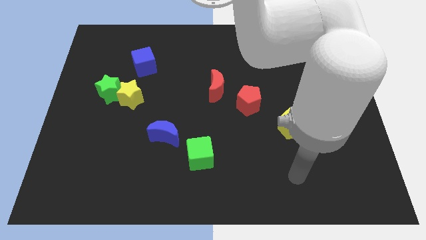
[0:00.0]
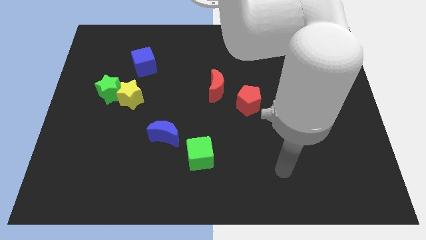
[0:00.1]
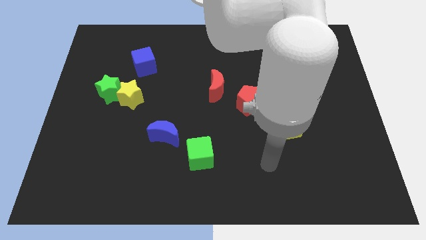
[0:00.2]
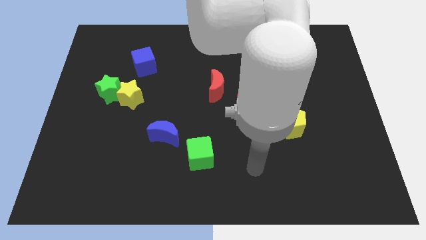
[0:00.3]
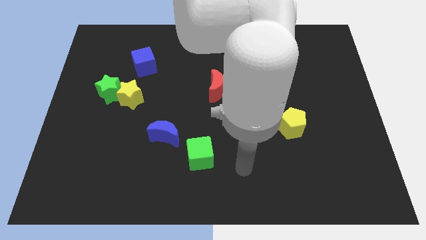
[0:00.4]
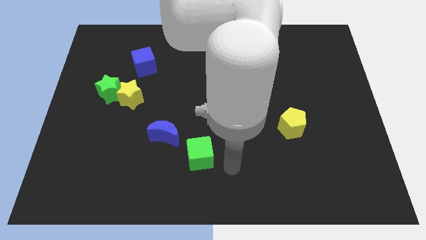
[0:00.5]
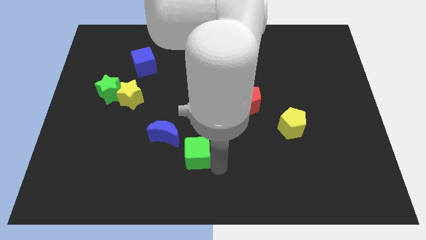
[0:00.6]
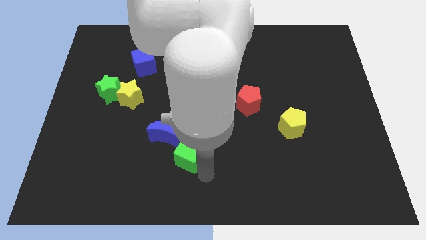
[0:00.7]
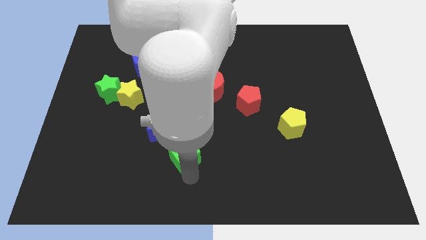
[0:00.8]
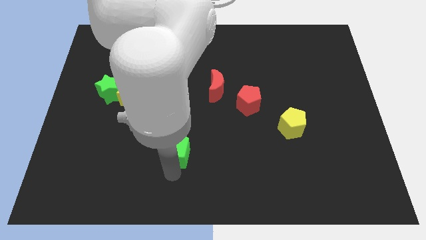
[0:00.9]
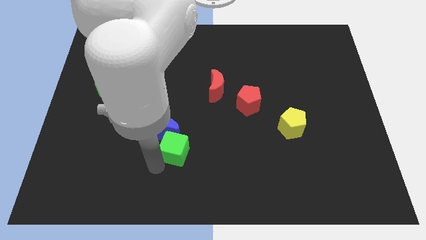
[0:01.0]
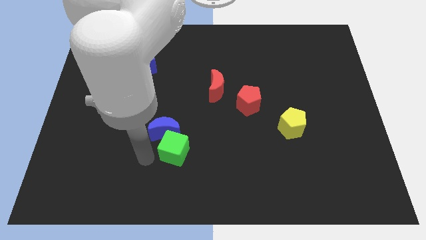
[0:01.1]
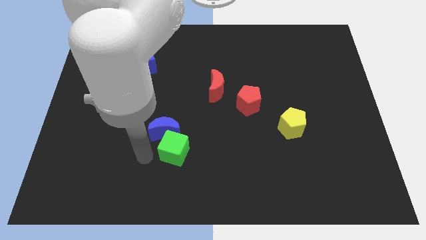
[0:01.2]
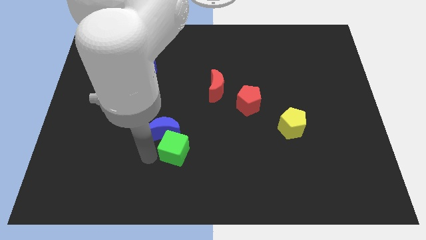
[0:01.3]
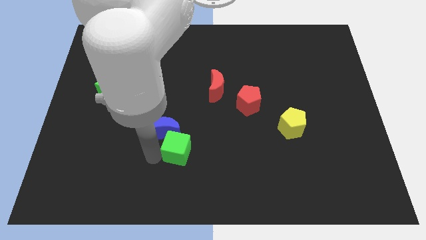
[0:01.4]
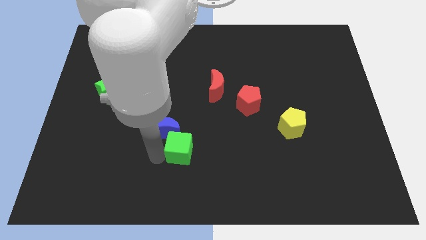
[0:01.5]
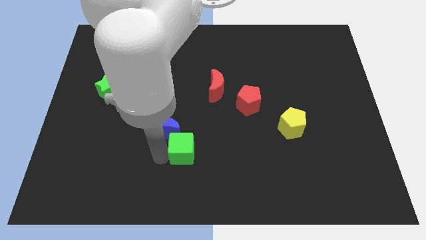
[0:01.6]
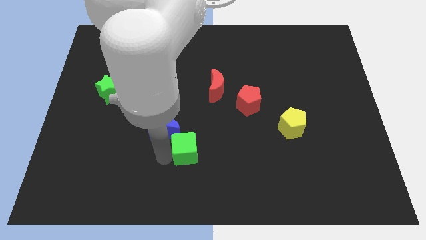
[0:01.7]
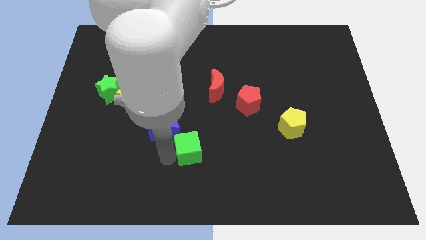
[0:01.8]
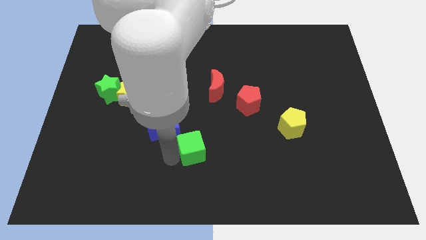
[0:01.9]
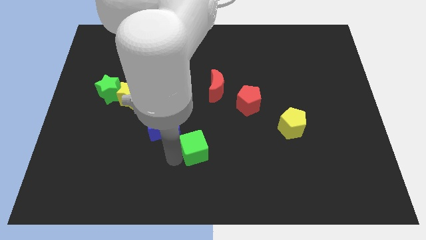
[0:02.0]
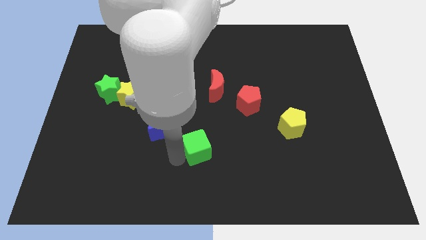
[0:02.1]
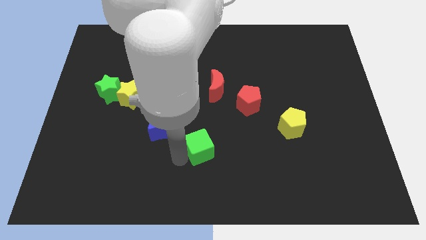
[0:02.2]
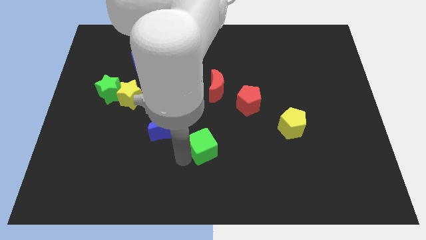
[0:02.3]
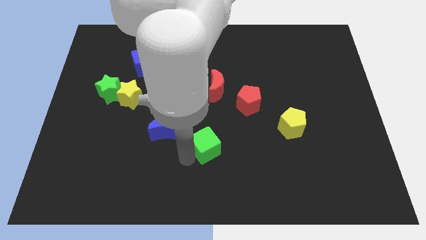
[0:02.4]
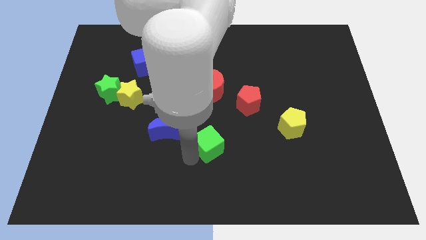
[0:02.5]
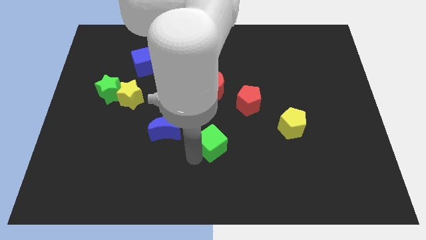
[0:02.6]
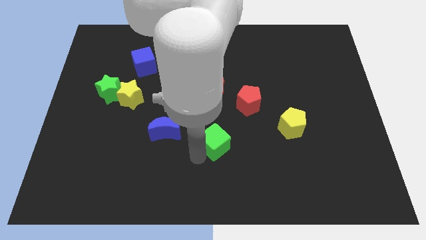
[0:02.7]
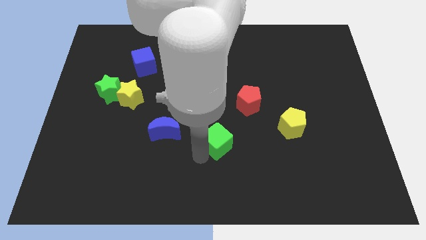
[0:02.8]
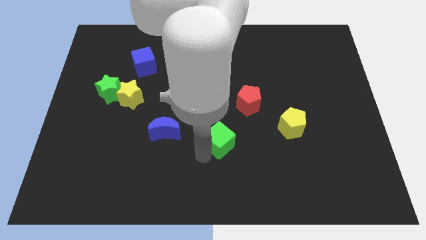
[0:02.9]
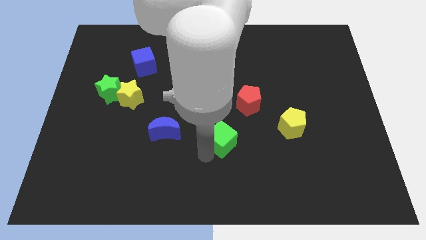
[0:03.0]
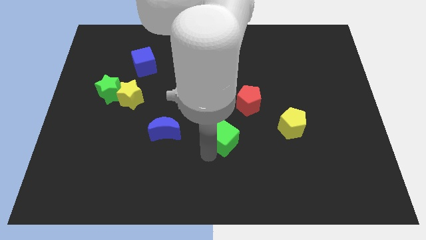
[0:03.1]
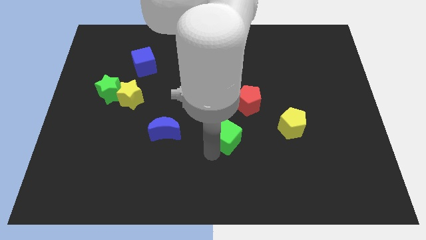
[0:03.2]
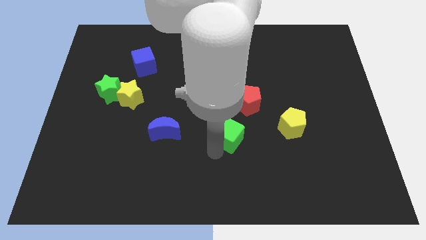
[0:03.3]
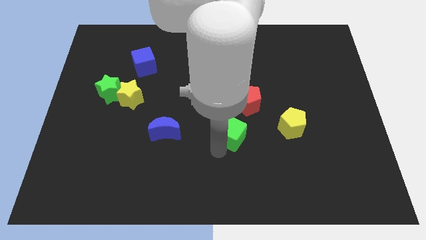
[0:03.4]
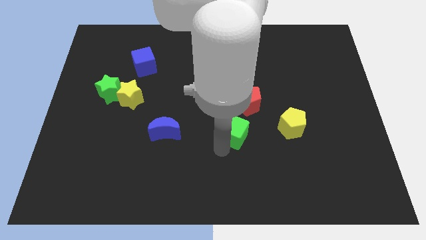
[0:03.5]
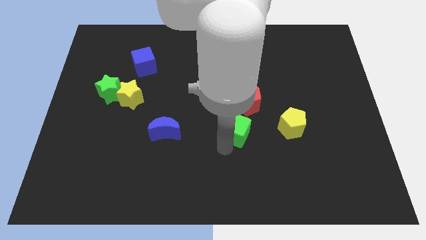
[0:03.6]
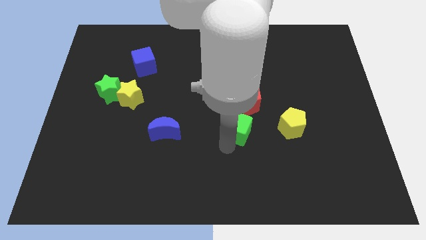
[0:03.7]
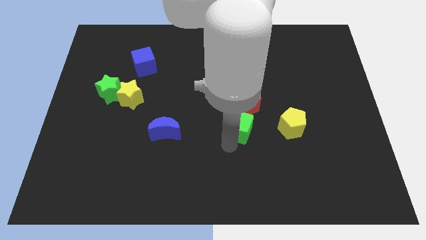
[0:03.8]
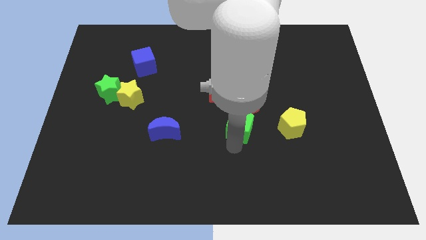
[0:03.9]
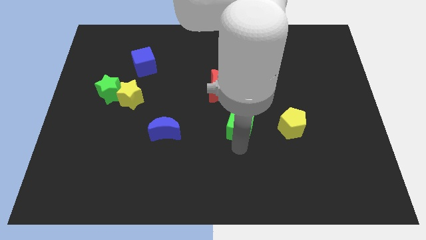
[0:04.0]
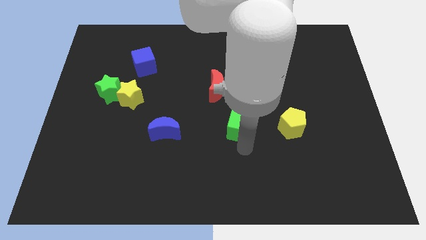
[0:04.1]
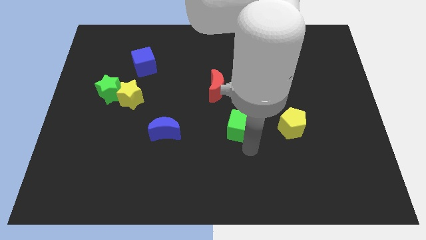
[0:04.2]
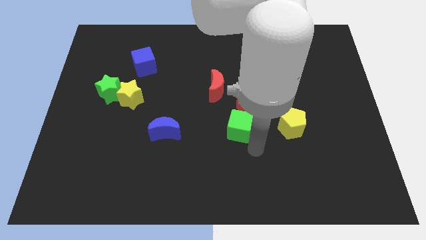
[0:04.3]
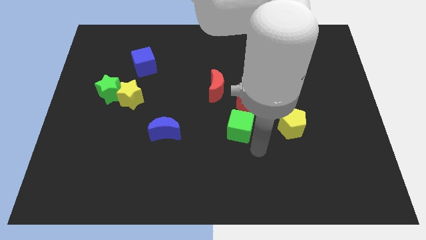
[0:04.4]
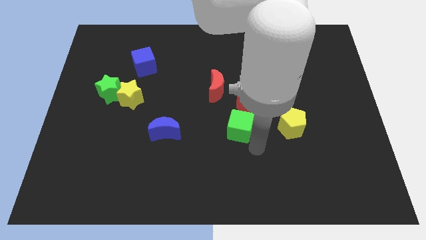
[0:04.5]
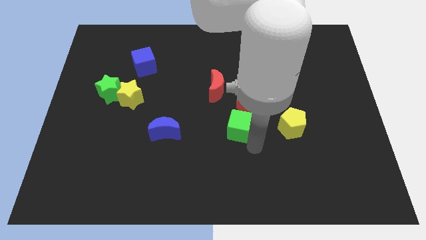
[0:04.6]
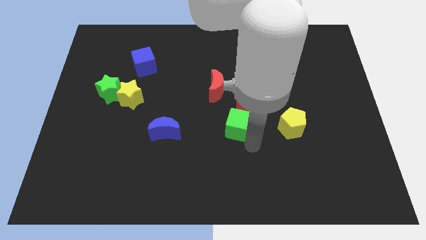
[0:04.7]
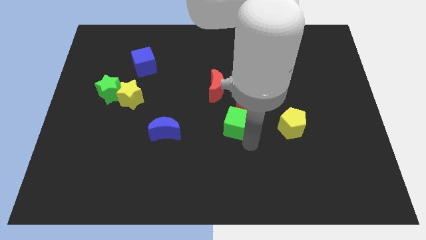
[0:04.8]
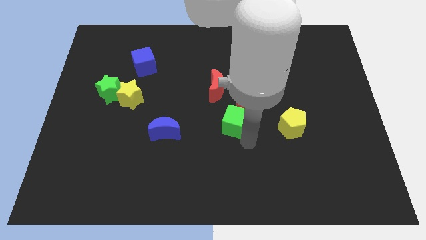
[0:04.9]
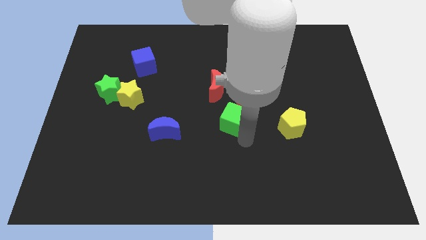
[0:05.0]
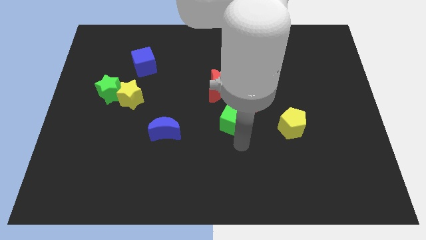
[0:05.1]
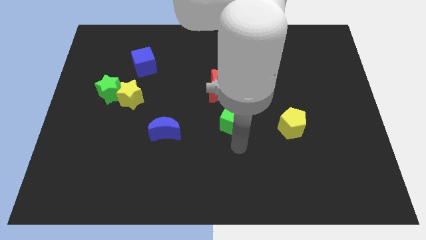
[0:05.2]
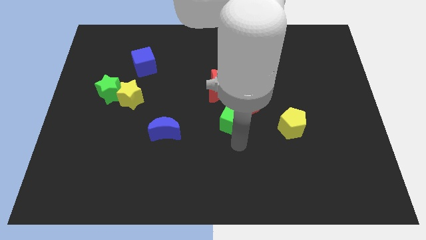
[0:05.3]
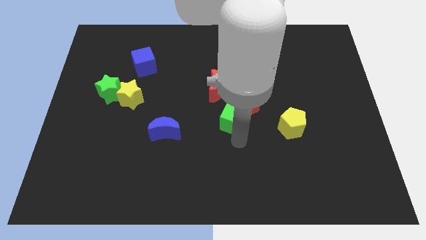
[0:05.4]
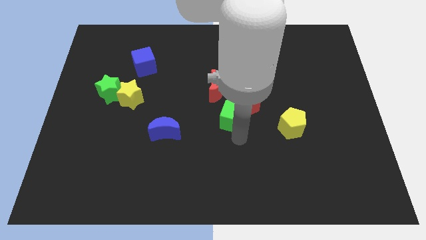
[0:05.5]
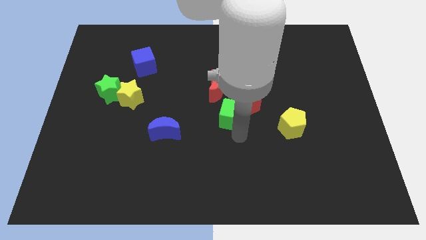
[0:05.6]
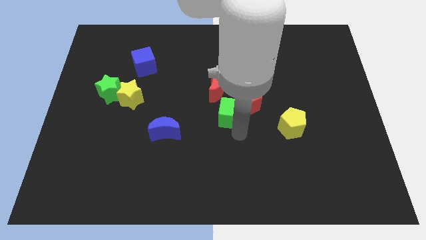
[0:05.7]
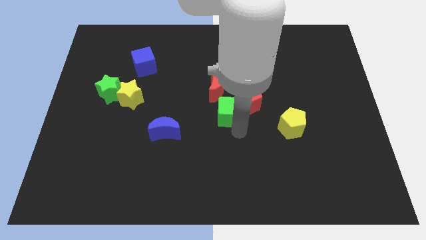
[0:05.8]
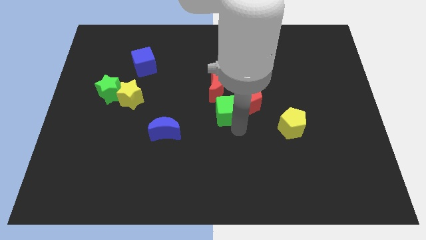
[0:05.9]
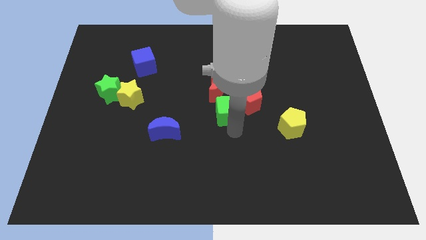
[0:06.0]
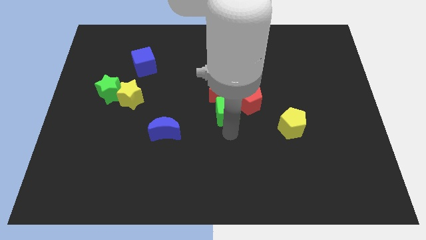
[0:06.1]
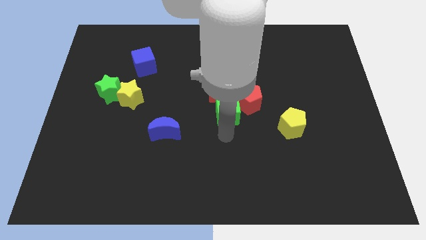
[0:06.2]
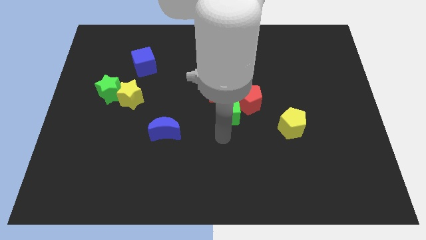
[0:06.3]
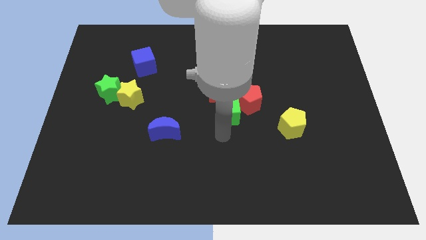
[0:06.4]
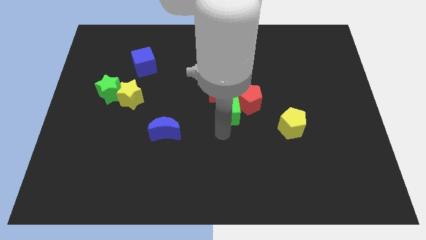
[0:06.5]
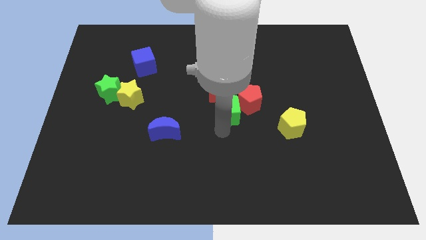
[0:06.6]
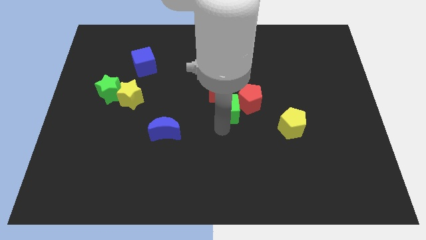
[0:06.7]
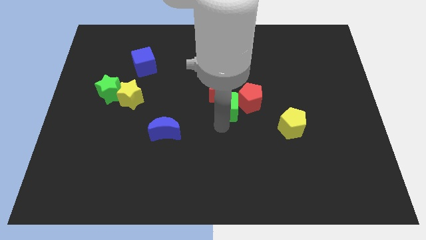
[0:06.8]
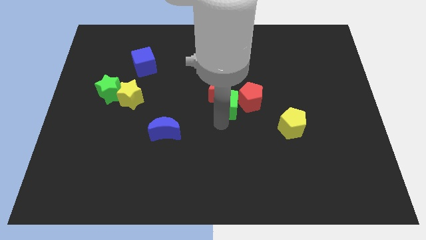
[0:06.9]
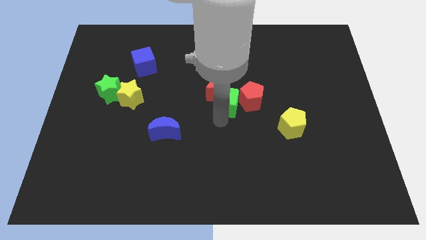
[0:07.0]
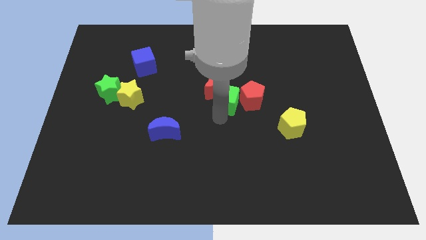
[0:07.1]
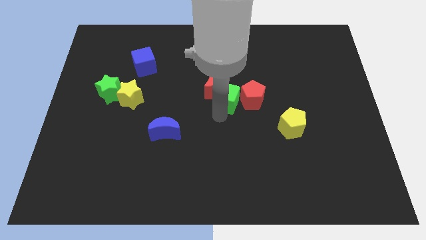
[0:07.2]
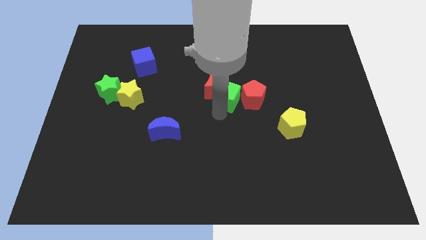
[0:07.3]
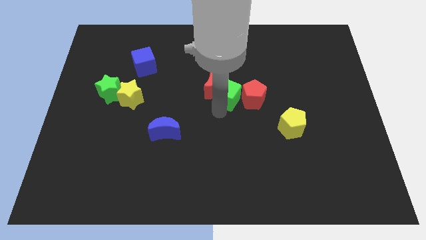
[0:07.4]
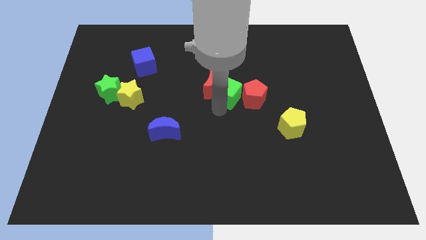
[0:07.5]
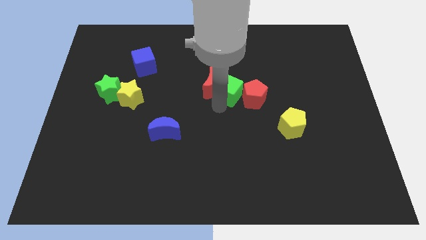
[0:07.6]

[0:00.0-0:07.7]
move the green cube to the top right of the red moon
